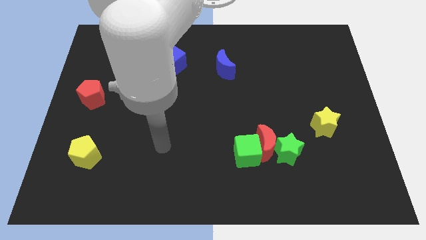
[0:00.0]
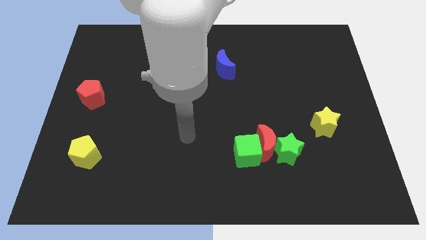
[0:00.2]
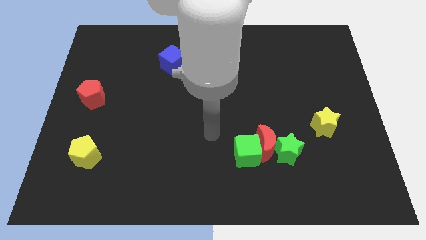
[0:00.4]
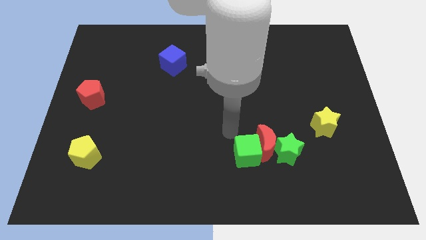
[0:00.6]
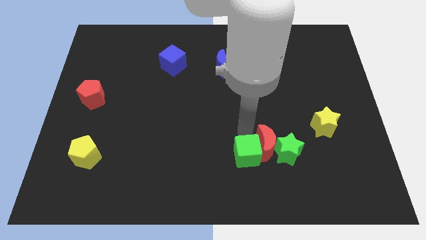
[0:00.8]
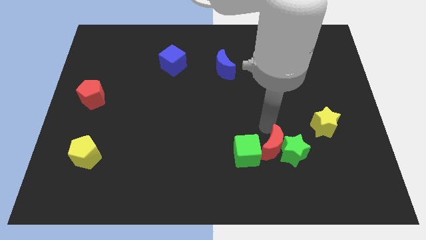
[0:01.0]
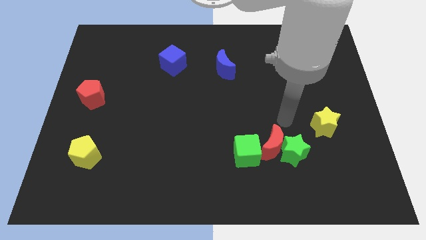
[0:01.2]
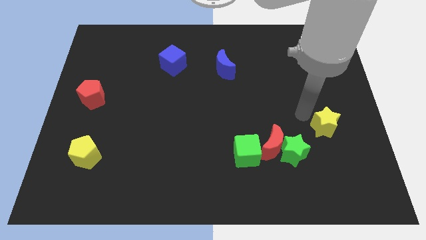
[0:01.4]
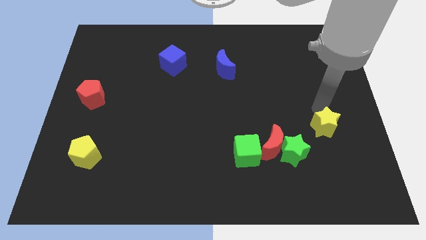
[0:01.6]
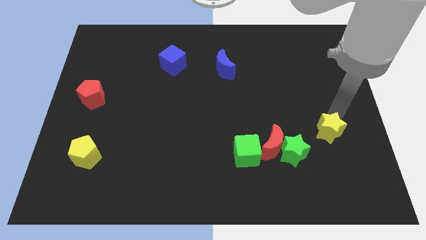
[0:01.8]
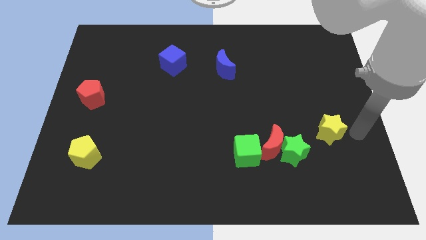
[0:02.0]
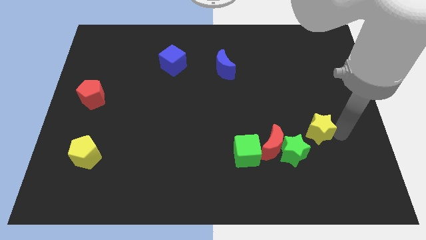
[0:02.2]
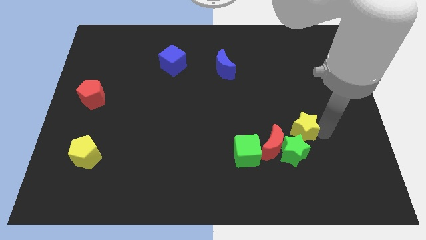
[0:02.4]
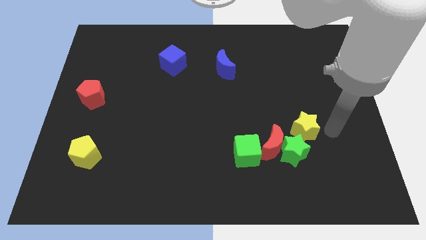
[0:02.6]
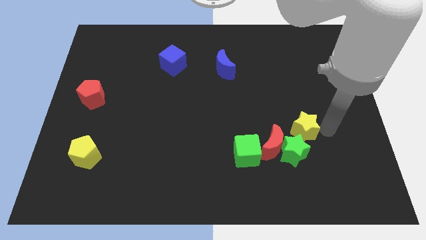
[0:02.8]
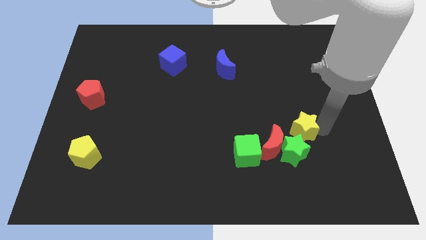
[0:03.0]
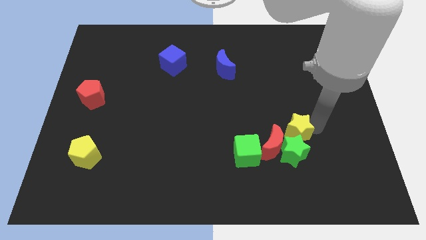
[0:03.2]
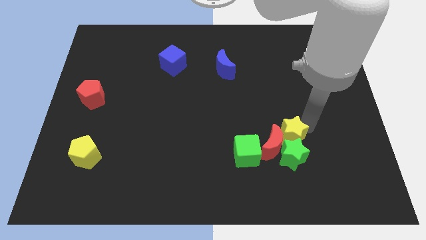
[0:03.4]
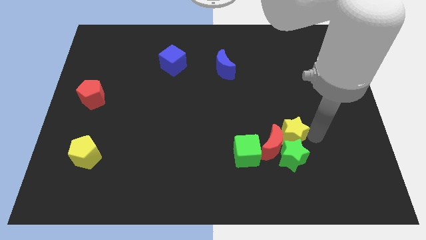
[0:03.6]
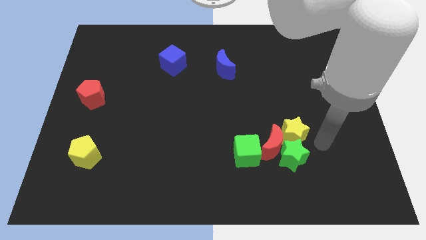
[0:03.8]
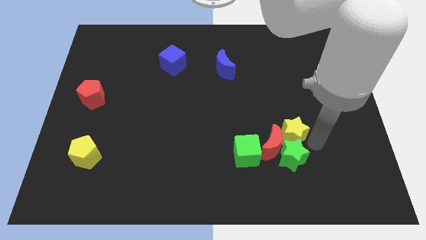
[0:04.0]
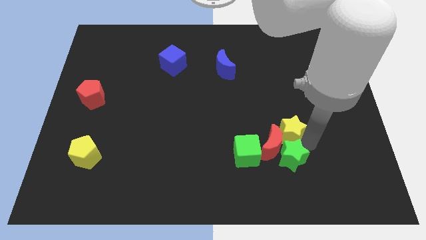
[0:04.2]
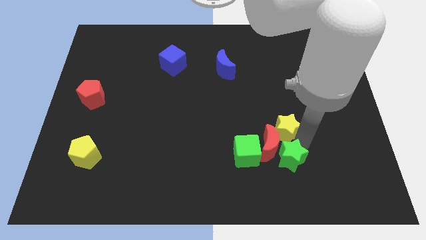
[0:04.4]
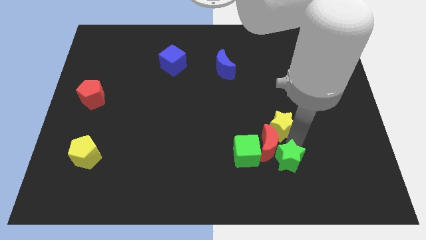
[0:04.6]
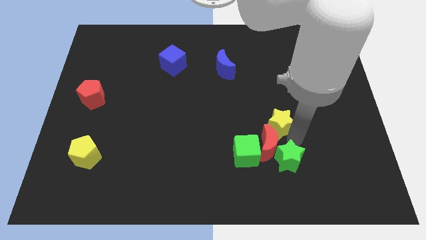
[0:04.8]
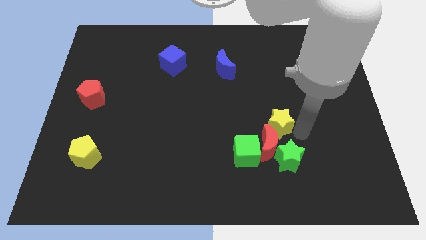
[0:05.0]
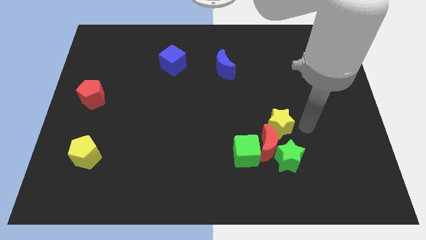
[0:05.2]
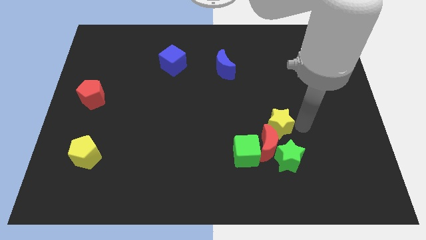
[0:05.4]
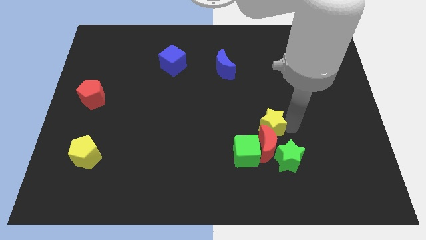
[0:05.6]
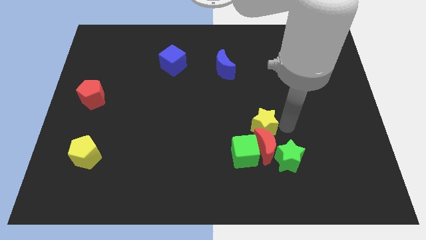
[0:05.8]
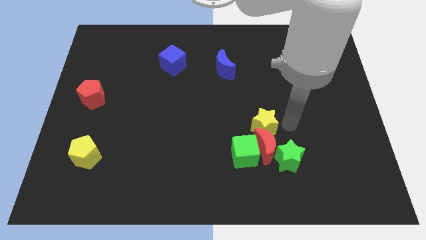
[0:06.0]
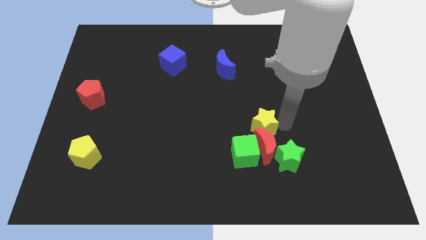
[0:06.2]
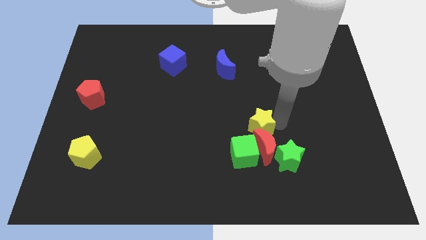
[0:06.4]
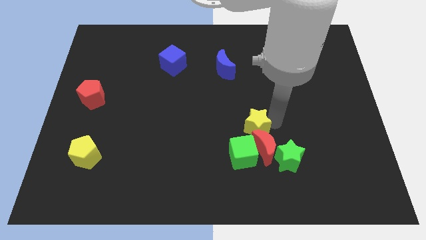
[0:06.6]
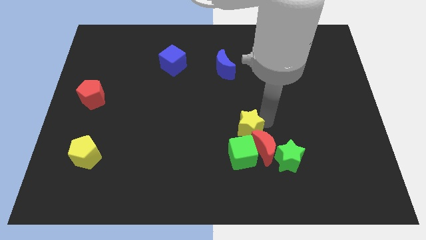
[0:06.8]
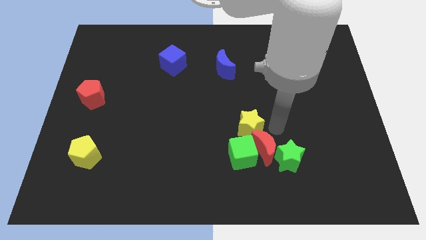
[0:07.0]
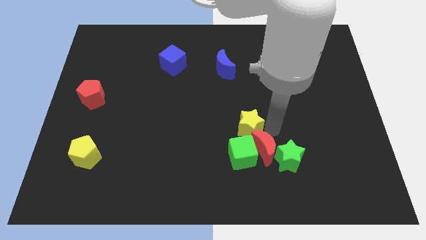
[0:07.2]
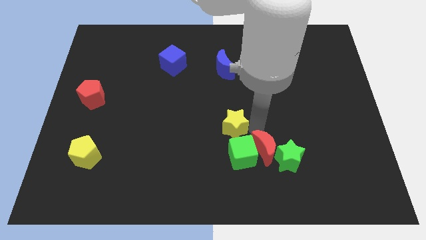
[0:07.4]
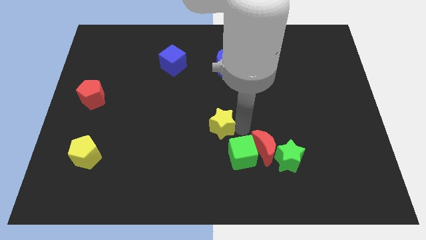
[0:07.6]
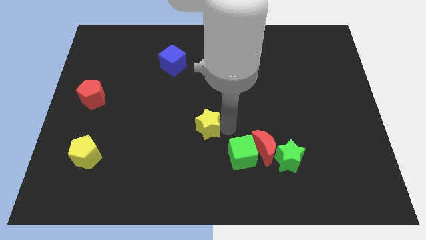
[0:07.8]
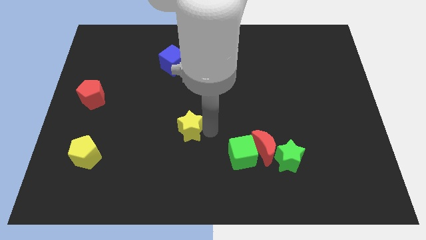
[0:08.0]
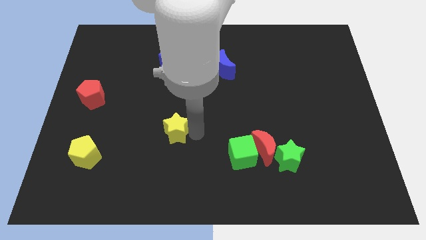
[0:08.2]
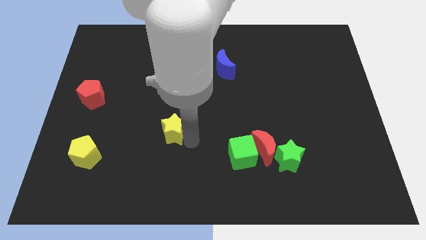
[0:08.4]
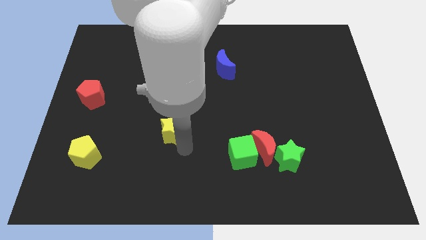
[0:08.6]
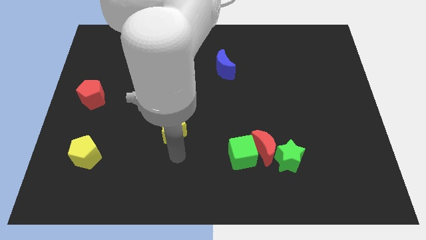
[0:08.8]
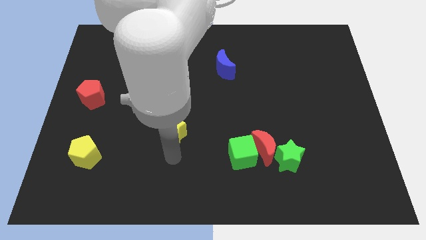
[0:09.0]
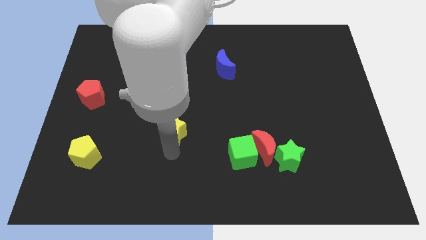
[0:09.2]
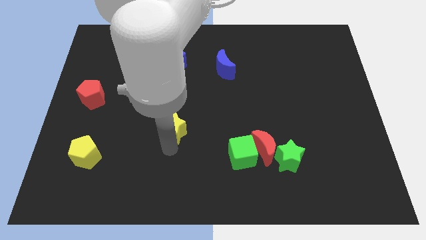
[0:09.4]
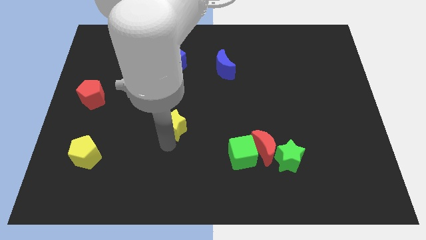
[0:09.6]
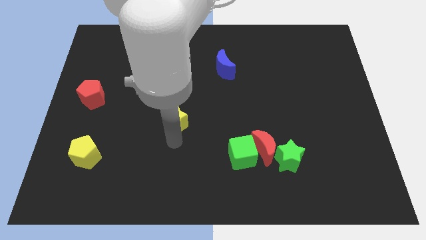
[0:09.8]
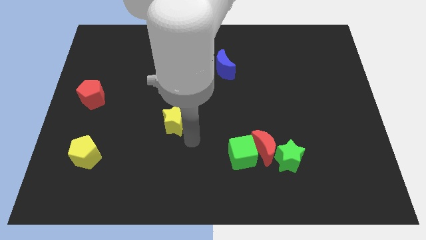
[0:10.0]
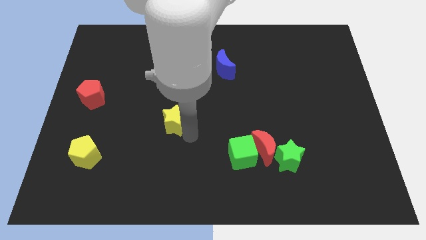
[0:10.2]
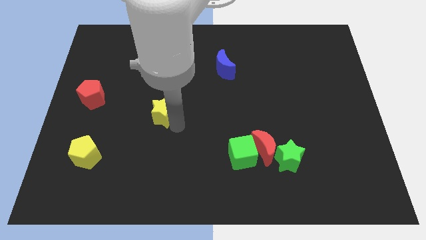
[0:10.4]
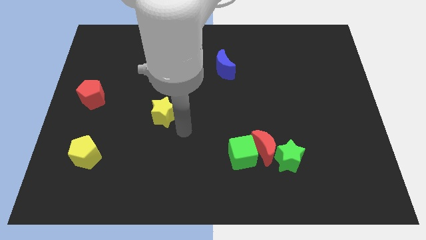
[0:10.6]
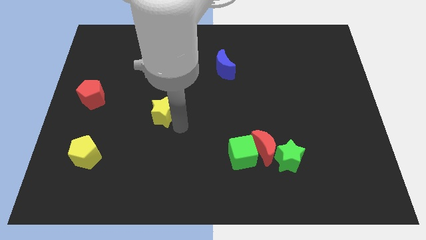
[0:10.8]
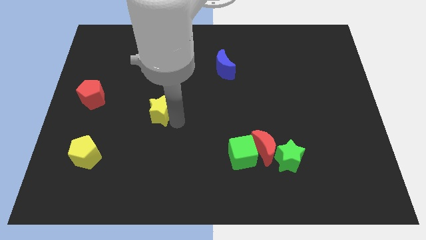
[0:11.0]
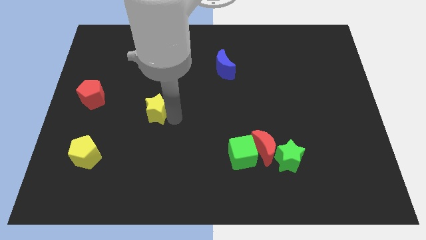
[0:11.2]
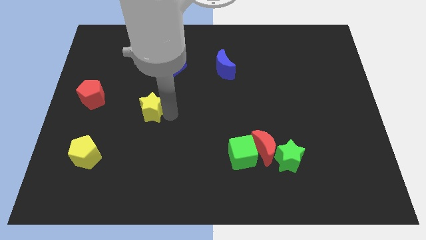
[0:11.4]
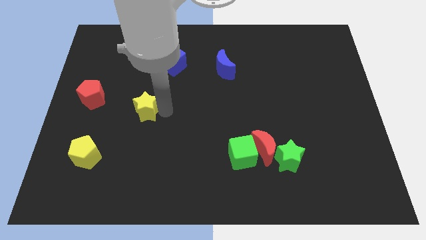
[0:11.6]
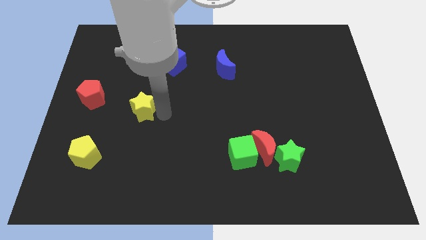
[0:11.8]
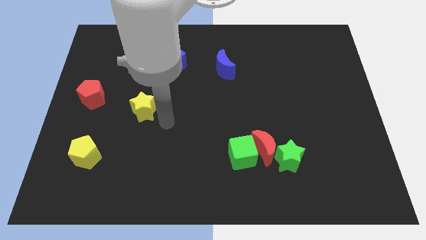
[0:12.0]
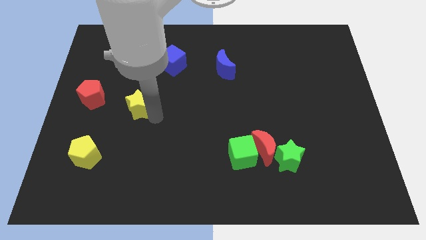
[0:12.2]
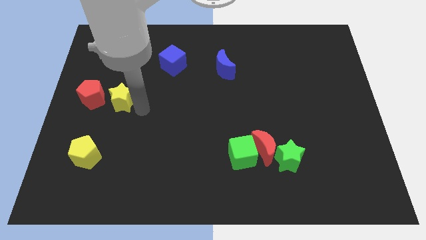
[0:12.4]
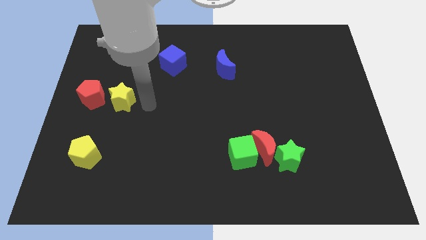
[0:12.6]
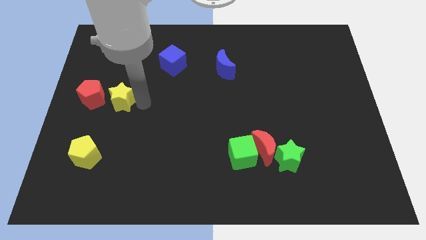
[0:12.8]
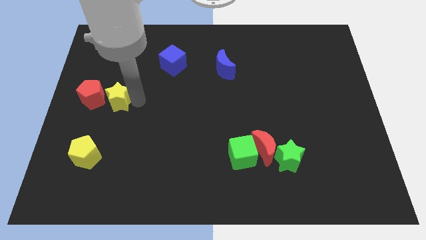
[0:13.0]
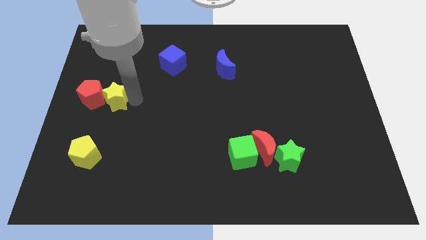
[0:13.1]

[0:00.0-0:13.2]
put the yellow star to the red pentagon

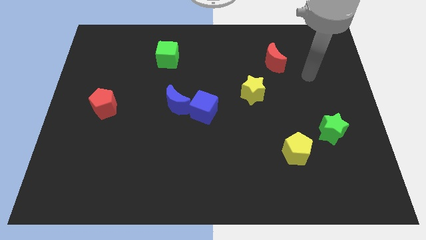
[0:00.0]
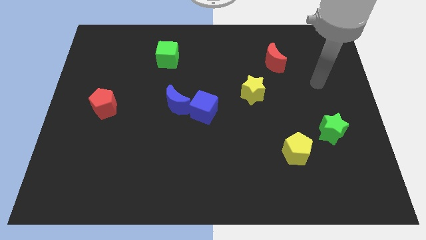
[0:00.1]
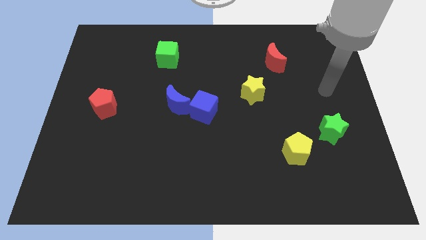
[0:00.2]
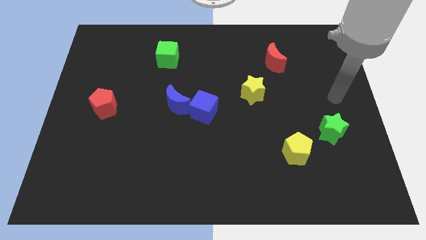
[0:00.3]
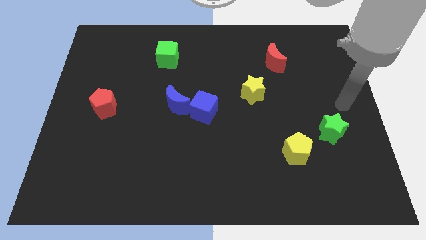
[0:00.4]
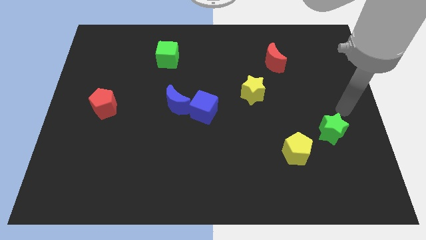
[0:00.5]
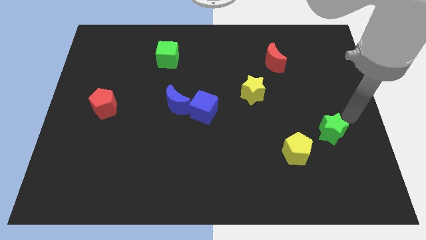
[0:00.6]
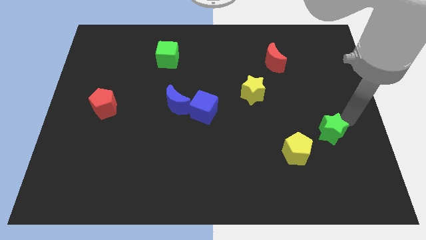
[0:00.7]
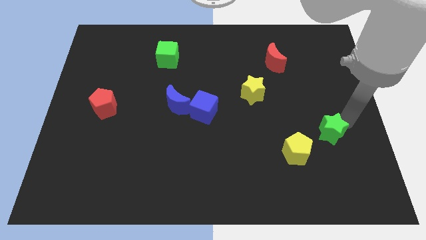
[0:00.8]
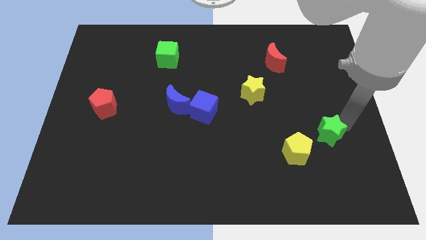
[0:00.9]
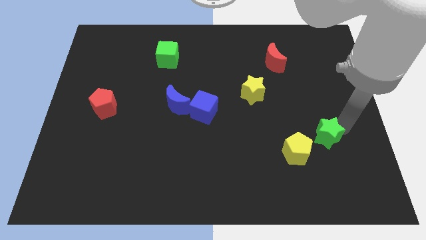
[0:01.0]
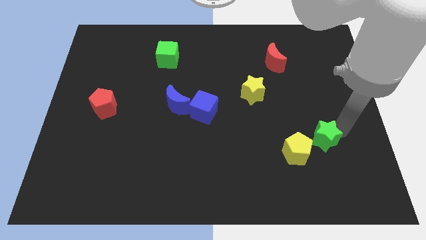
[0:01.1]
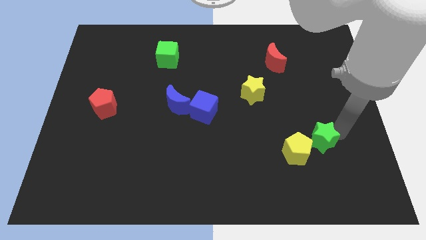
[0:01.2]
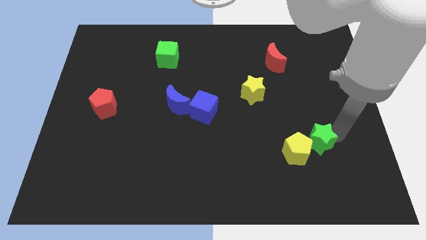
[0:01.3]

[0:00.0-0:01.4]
push the green star next to the yellow pentagon
